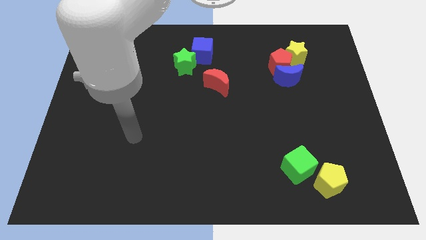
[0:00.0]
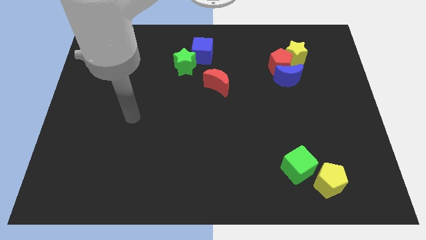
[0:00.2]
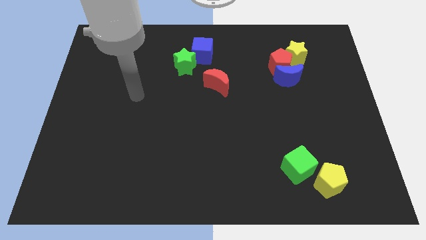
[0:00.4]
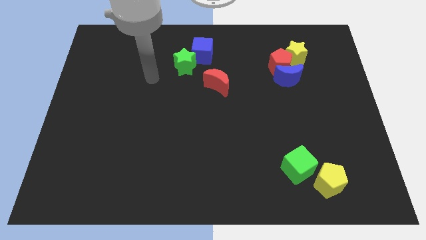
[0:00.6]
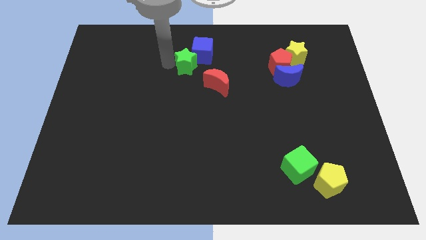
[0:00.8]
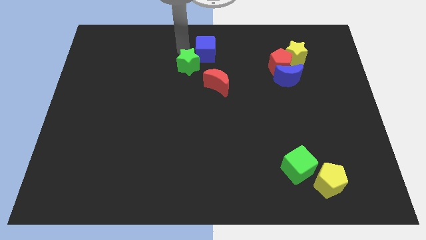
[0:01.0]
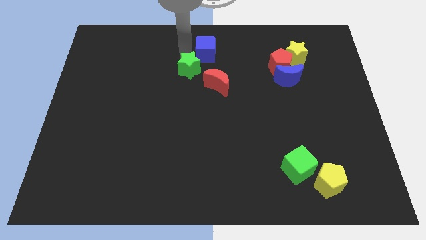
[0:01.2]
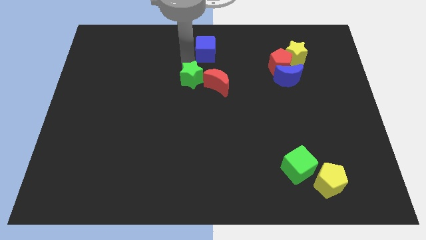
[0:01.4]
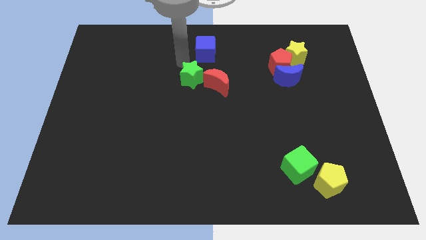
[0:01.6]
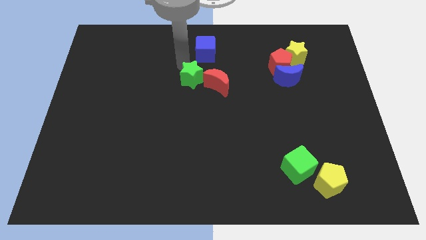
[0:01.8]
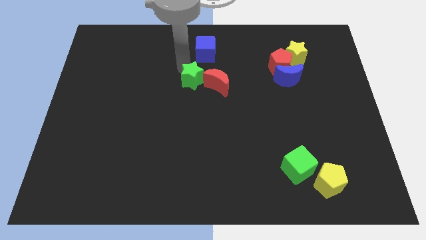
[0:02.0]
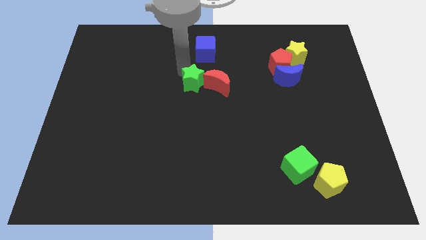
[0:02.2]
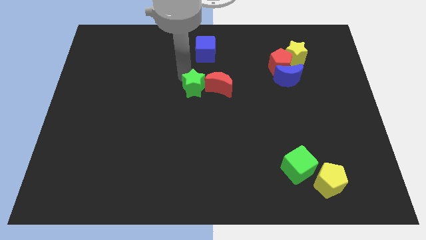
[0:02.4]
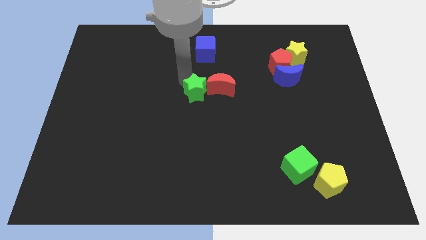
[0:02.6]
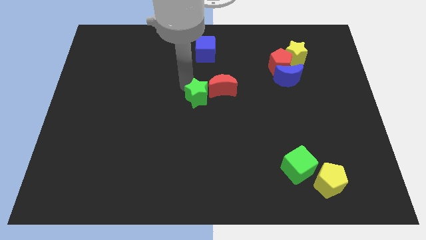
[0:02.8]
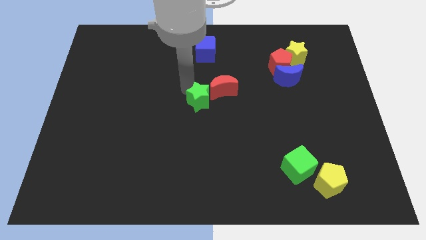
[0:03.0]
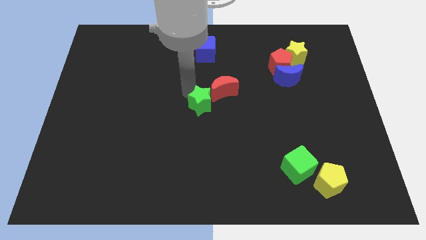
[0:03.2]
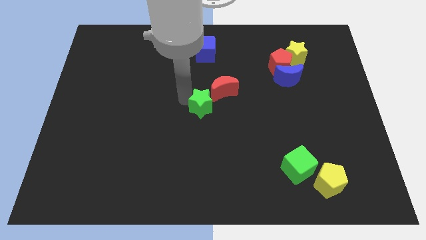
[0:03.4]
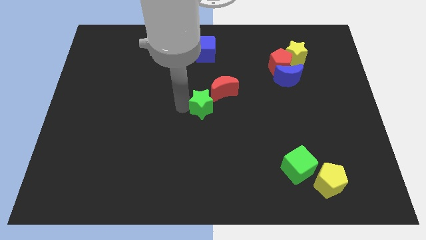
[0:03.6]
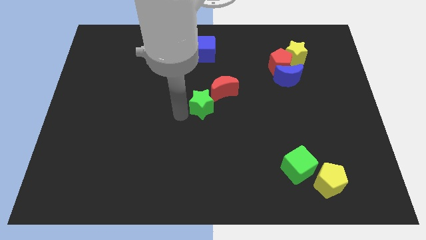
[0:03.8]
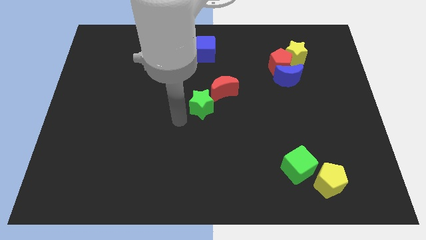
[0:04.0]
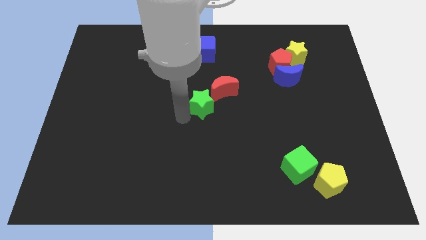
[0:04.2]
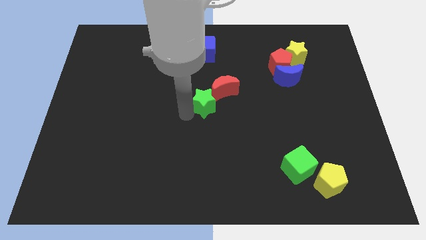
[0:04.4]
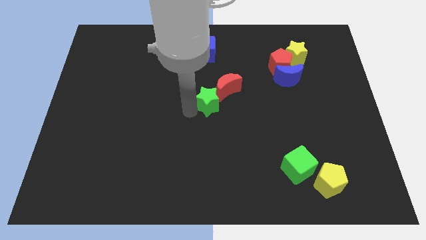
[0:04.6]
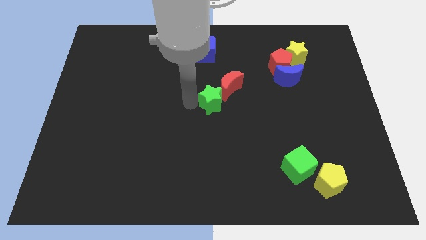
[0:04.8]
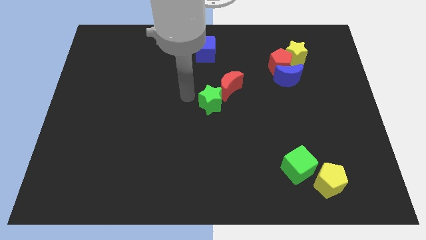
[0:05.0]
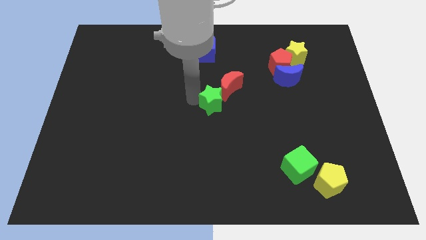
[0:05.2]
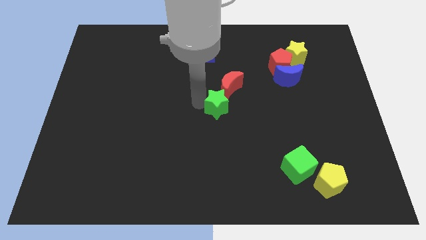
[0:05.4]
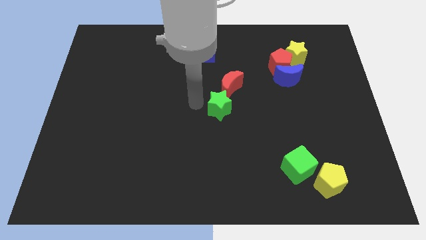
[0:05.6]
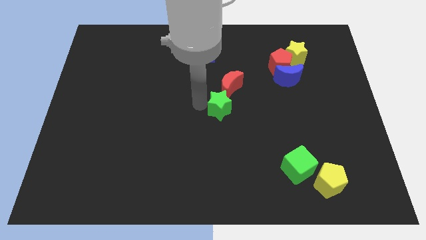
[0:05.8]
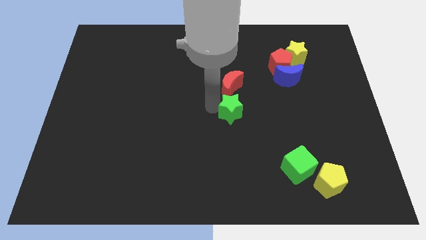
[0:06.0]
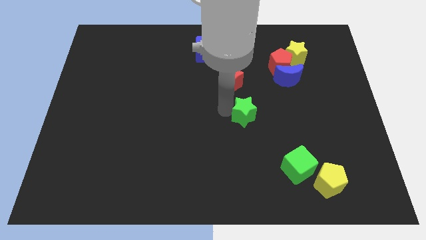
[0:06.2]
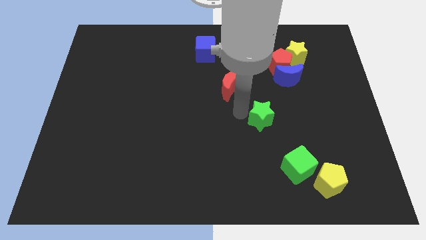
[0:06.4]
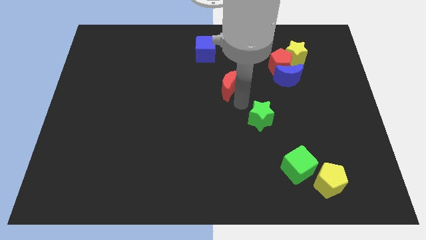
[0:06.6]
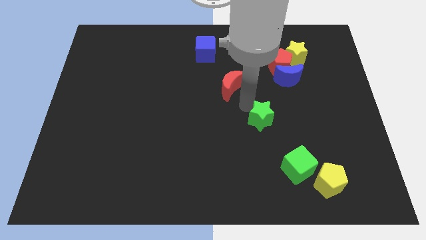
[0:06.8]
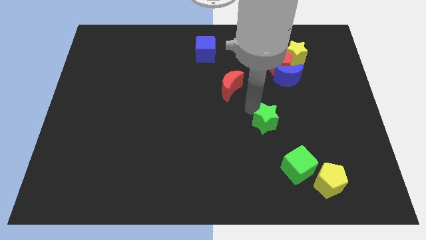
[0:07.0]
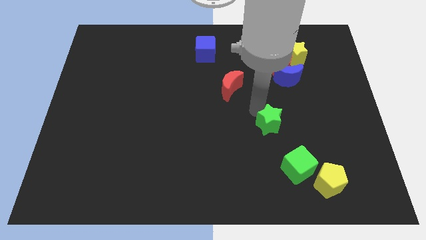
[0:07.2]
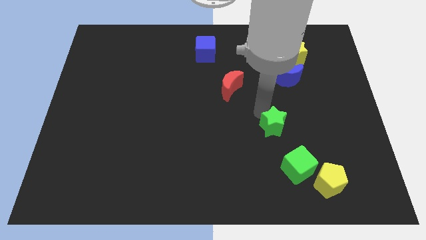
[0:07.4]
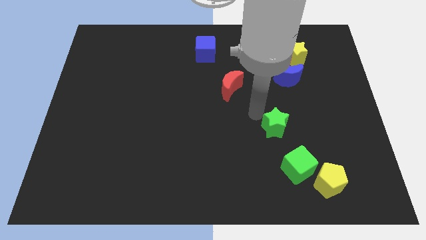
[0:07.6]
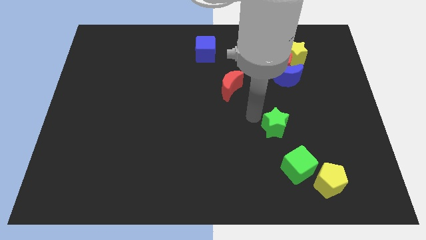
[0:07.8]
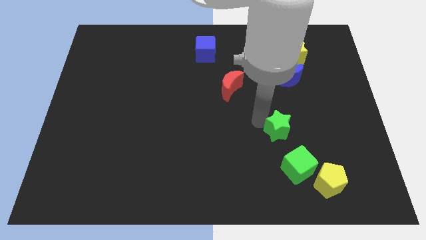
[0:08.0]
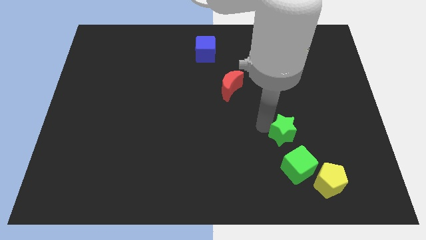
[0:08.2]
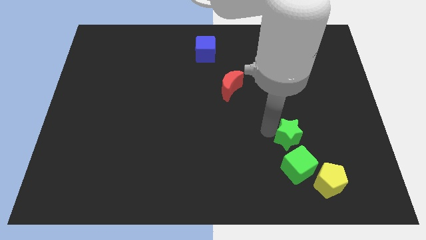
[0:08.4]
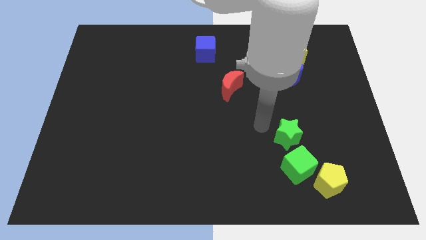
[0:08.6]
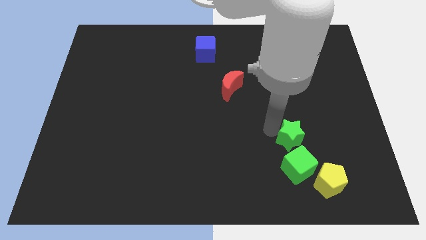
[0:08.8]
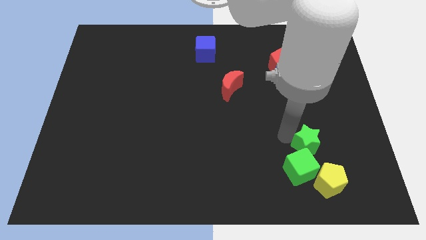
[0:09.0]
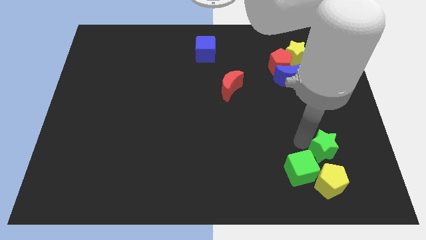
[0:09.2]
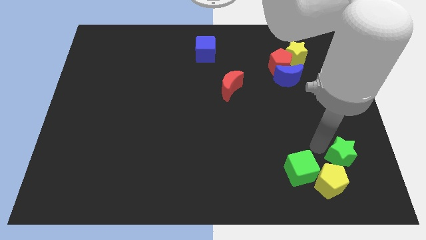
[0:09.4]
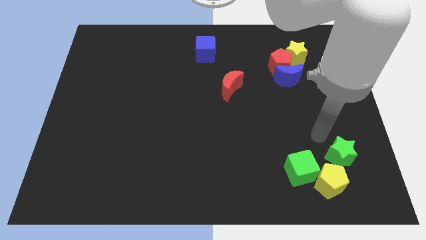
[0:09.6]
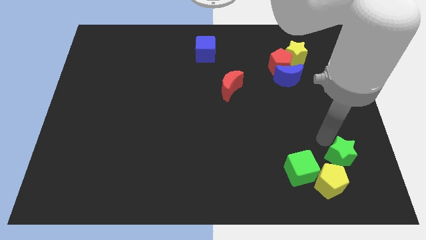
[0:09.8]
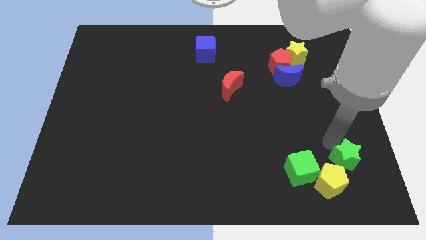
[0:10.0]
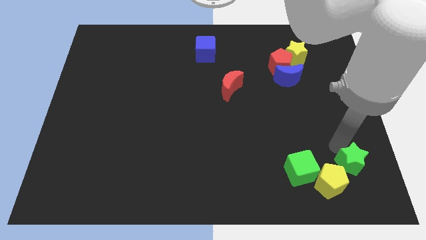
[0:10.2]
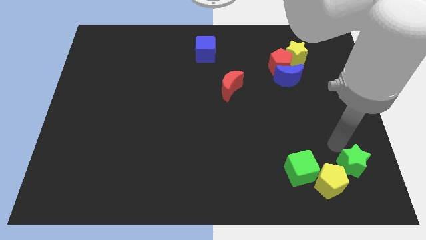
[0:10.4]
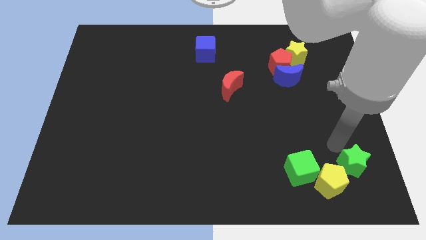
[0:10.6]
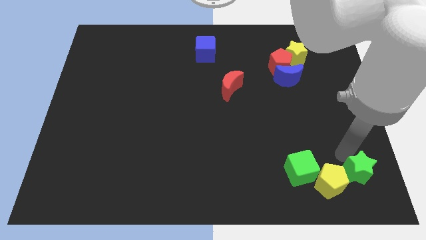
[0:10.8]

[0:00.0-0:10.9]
slide the green star to the bottom right

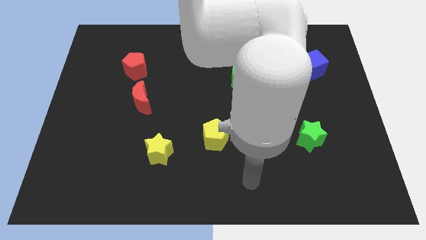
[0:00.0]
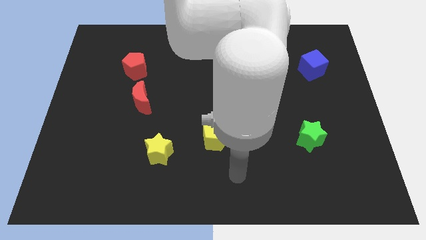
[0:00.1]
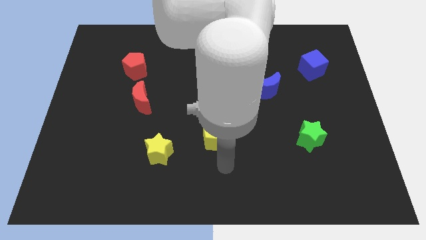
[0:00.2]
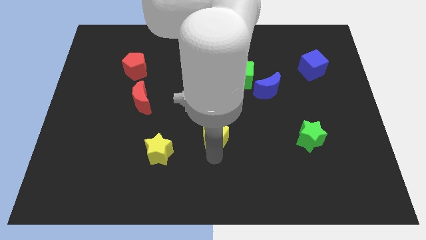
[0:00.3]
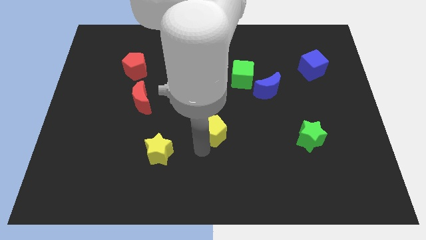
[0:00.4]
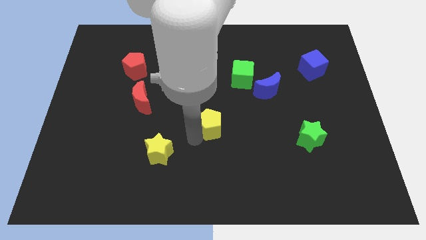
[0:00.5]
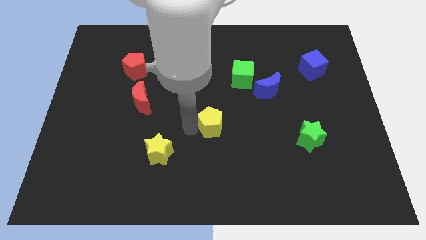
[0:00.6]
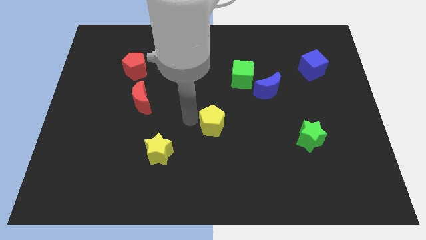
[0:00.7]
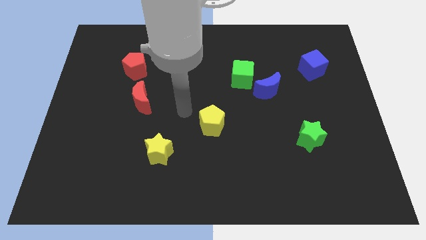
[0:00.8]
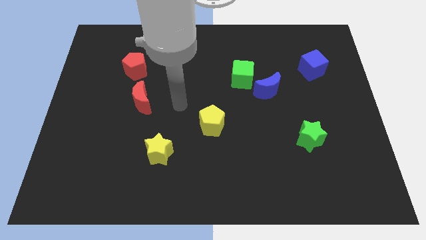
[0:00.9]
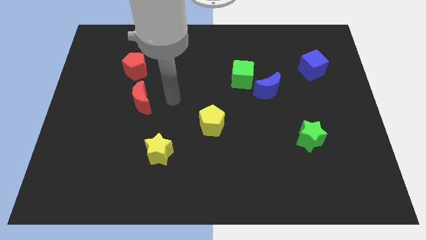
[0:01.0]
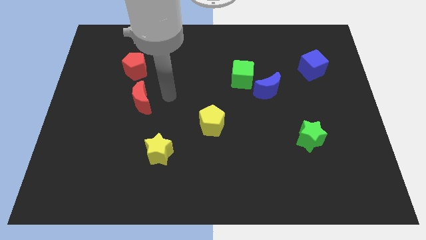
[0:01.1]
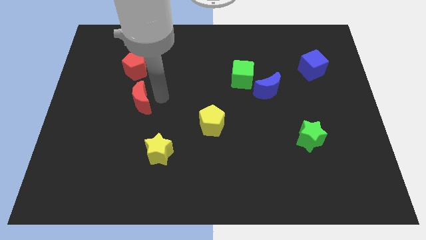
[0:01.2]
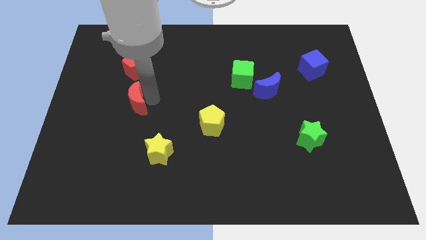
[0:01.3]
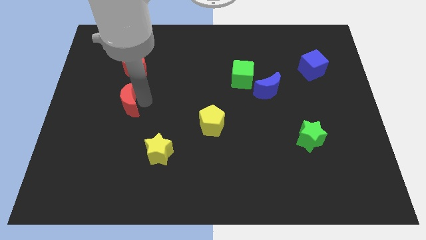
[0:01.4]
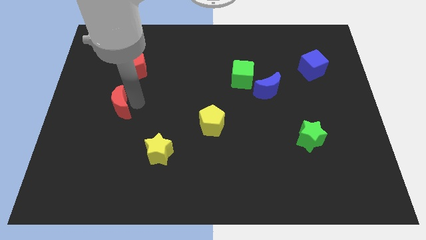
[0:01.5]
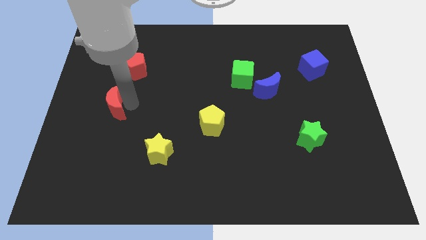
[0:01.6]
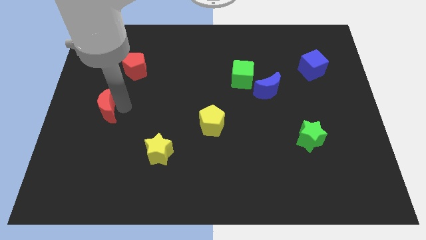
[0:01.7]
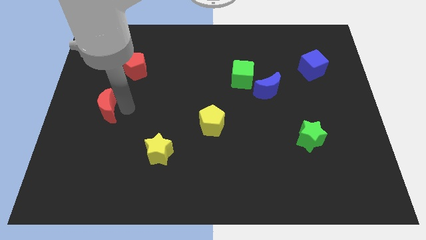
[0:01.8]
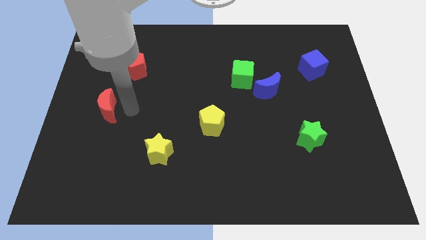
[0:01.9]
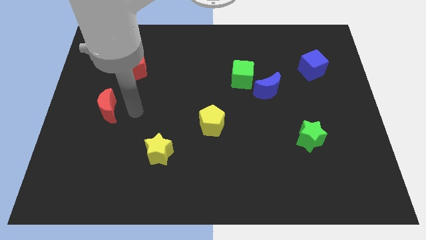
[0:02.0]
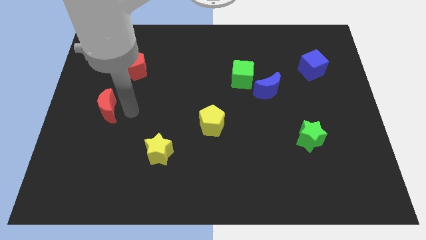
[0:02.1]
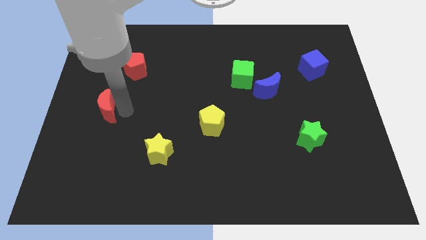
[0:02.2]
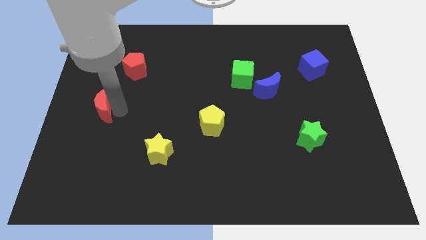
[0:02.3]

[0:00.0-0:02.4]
slide the red moon to the center left
